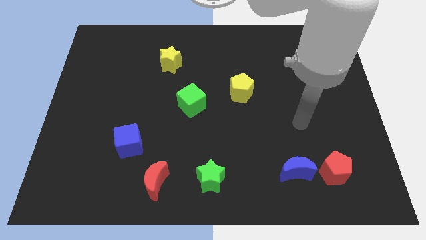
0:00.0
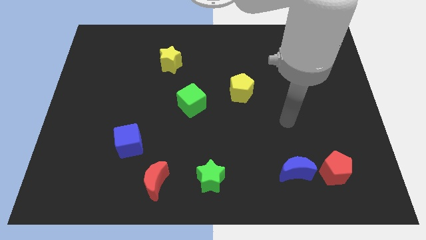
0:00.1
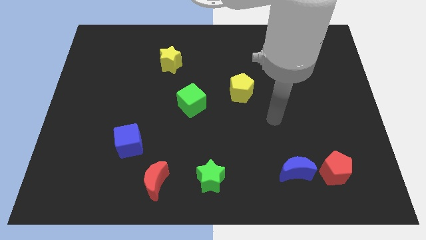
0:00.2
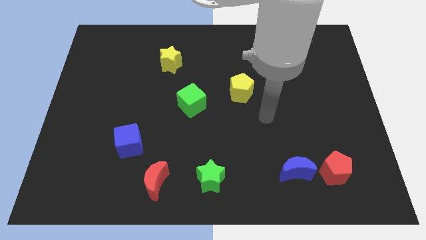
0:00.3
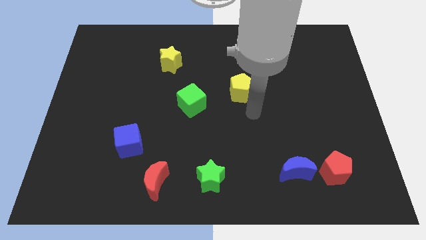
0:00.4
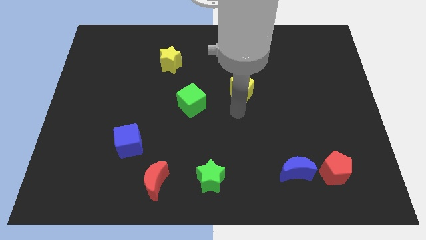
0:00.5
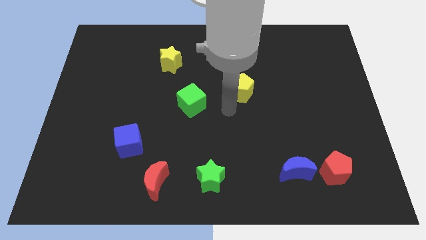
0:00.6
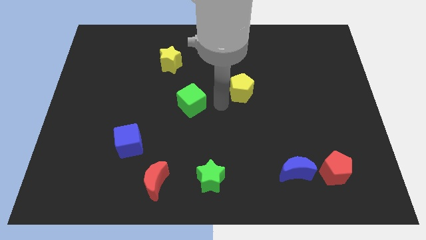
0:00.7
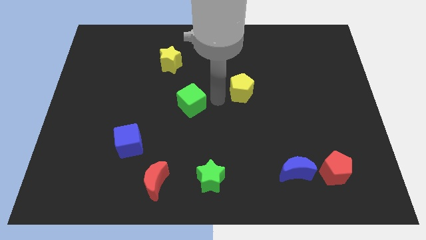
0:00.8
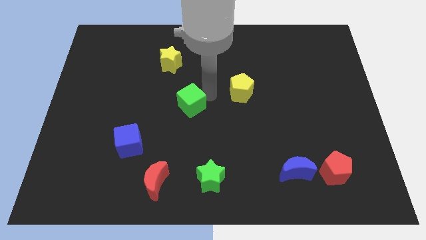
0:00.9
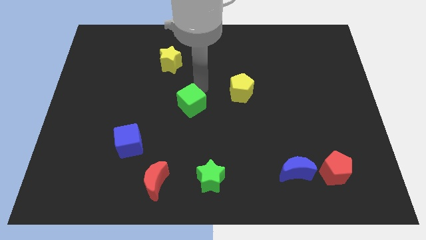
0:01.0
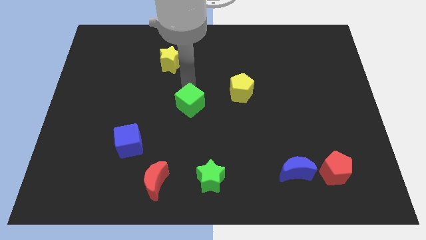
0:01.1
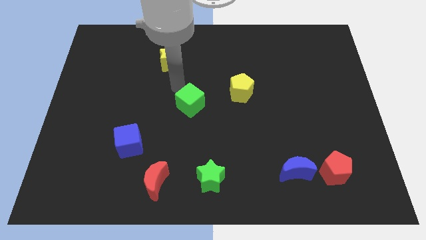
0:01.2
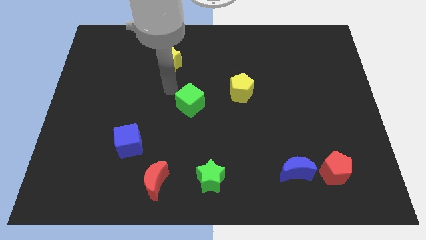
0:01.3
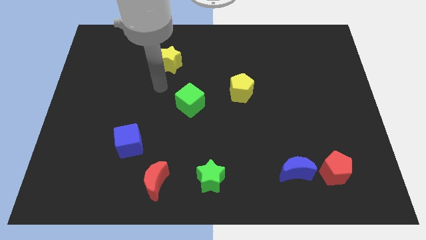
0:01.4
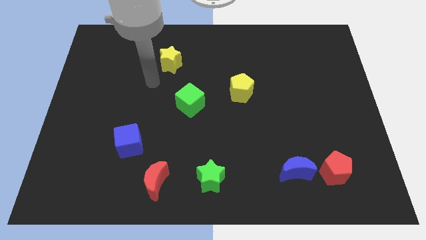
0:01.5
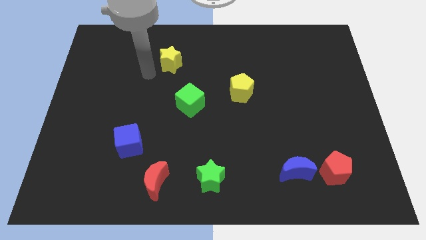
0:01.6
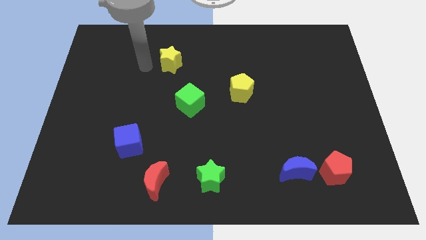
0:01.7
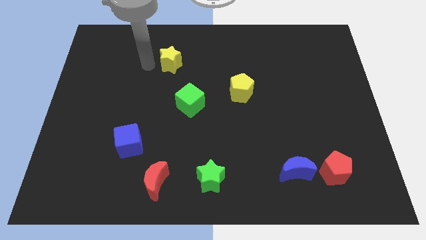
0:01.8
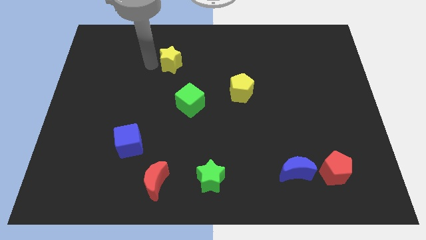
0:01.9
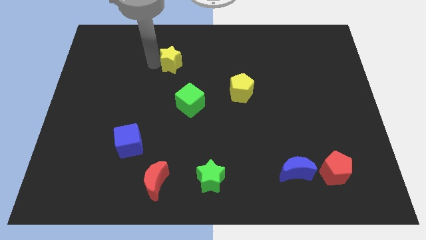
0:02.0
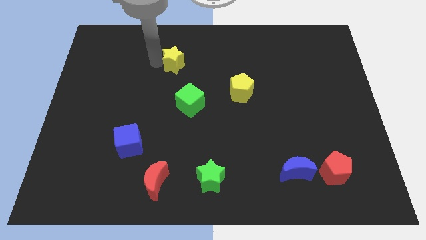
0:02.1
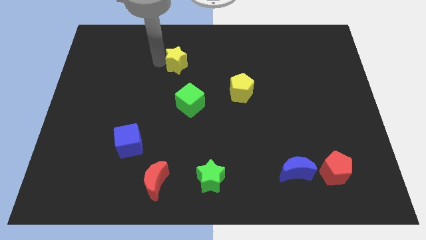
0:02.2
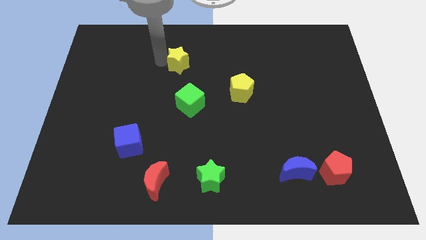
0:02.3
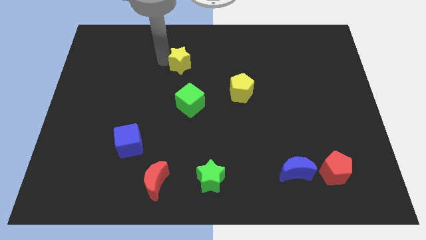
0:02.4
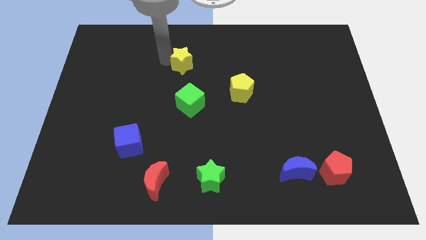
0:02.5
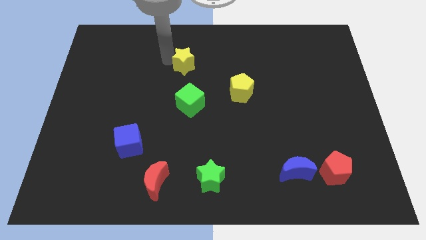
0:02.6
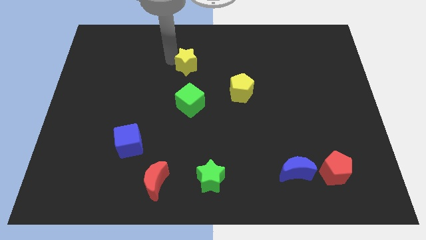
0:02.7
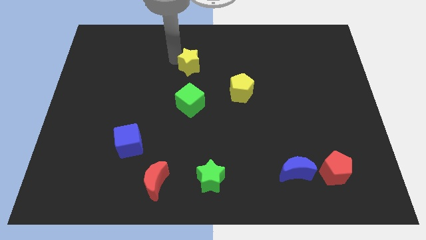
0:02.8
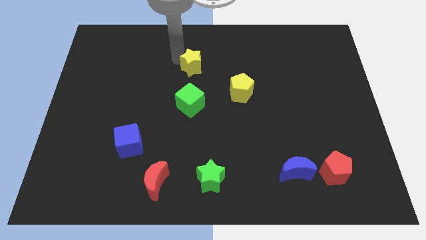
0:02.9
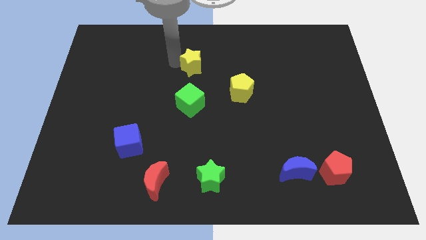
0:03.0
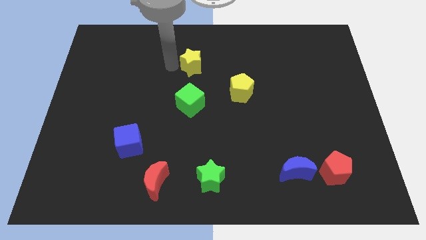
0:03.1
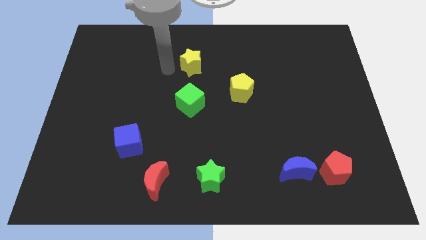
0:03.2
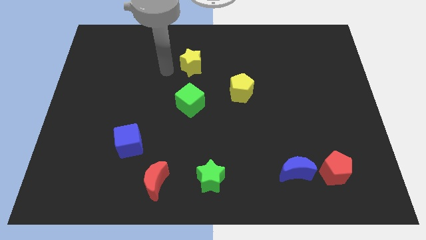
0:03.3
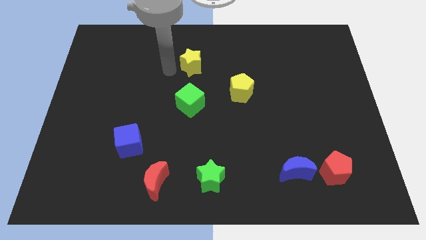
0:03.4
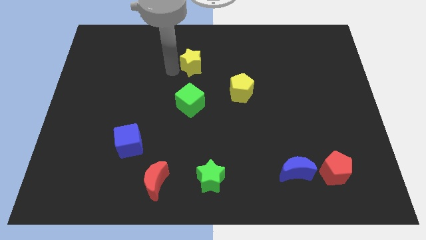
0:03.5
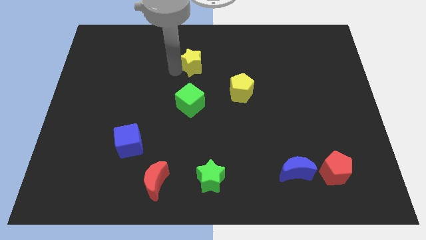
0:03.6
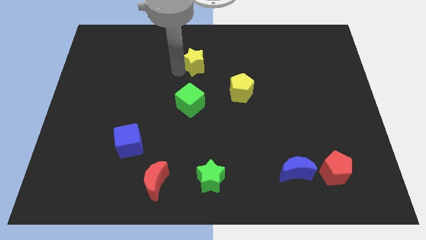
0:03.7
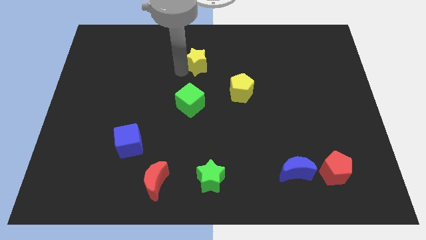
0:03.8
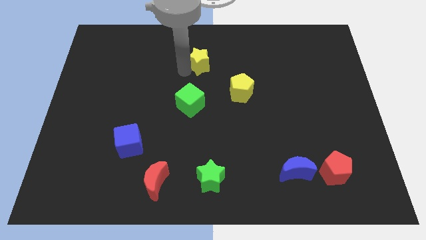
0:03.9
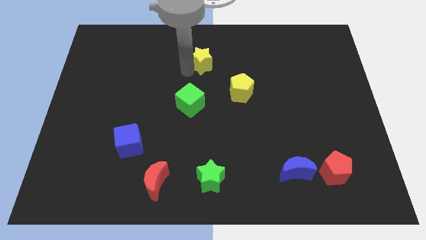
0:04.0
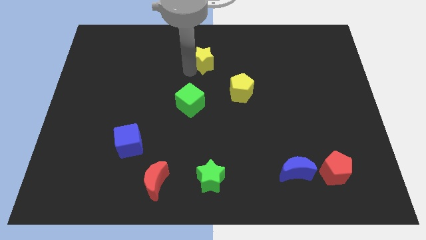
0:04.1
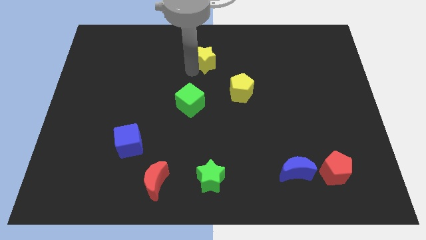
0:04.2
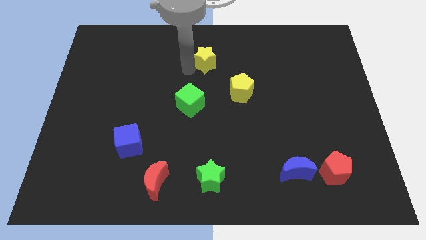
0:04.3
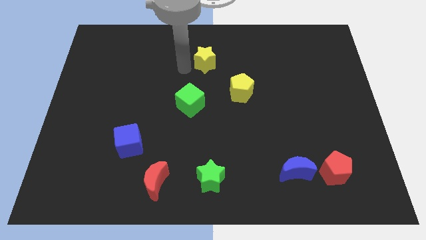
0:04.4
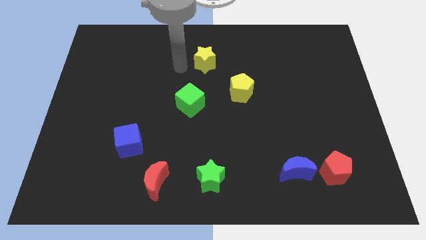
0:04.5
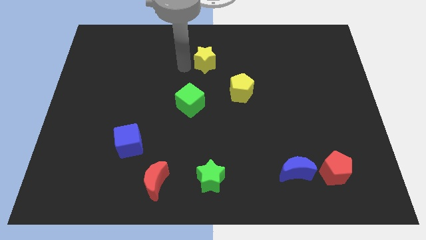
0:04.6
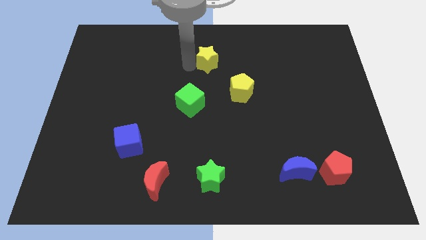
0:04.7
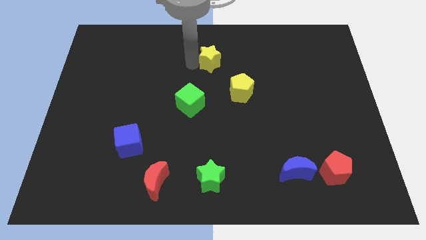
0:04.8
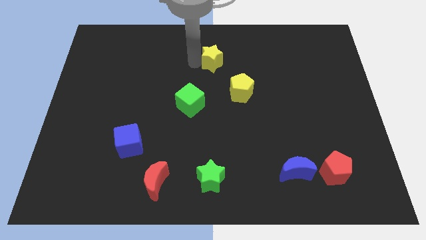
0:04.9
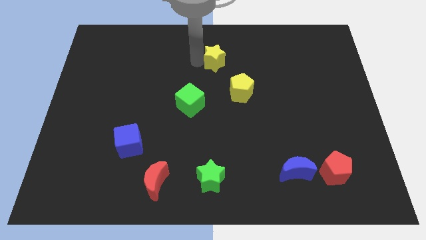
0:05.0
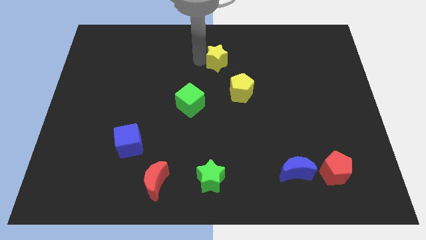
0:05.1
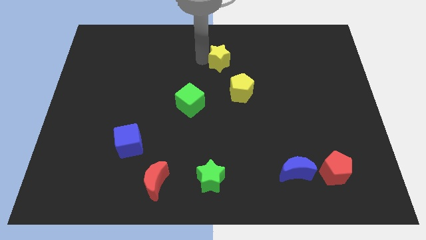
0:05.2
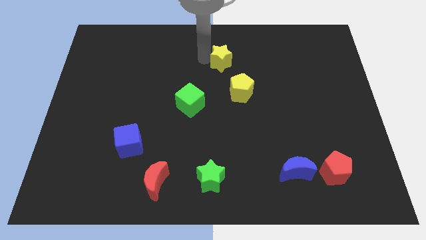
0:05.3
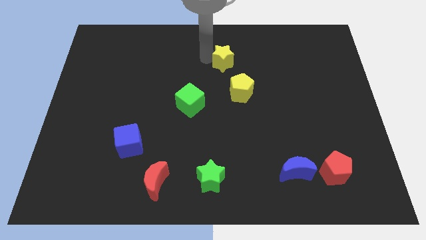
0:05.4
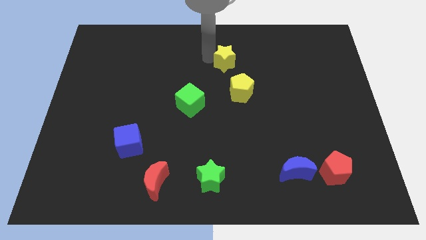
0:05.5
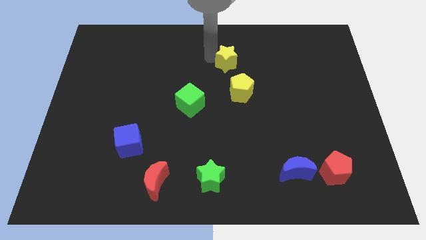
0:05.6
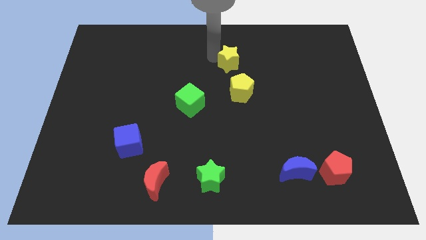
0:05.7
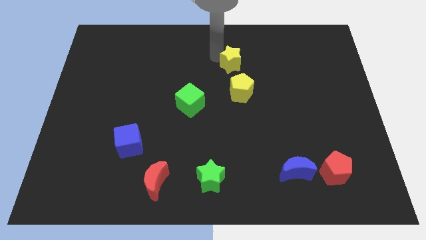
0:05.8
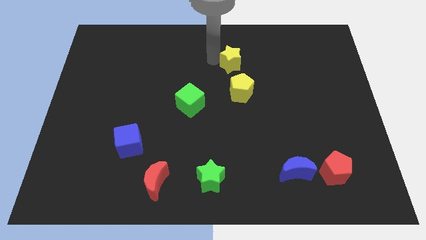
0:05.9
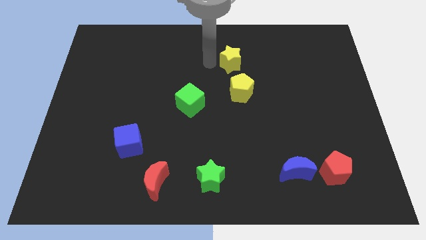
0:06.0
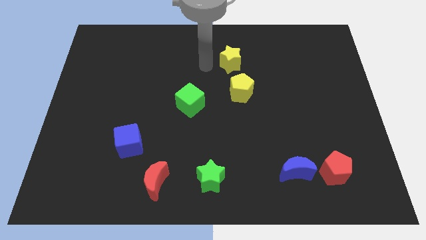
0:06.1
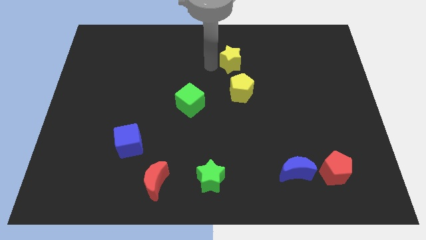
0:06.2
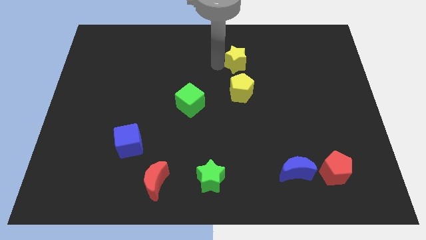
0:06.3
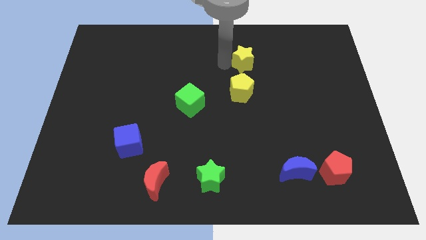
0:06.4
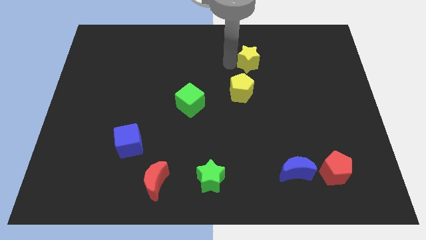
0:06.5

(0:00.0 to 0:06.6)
move the yellow star to the right

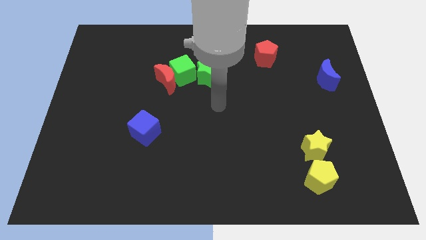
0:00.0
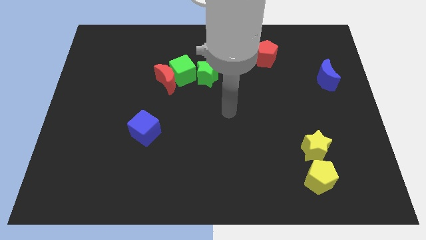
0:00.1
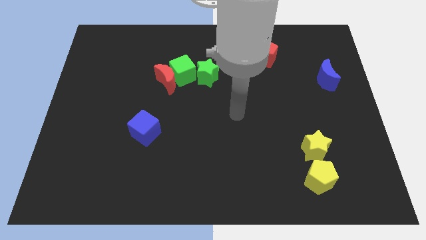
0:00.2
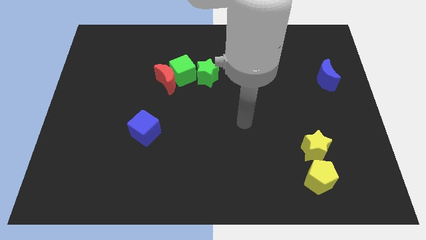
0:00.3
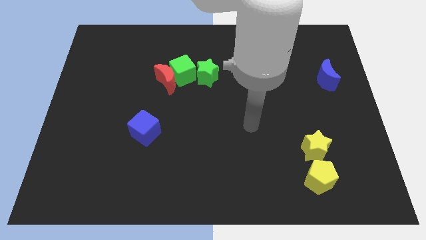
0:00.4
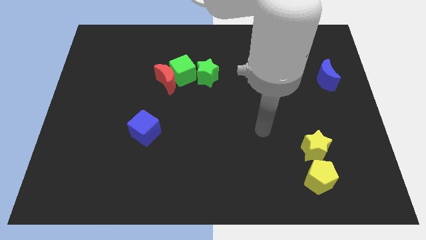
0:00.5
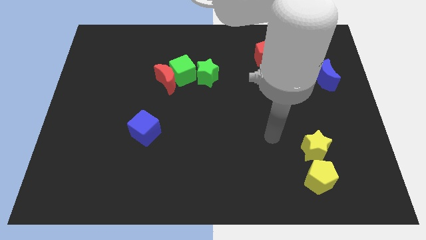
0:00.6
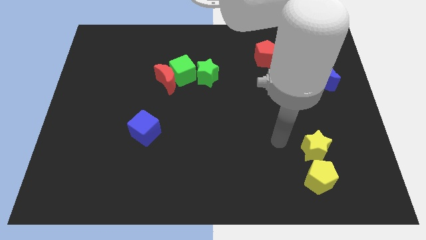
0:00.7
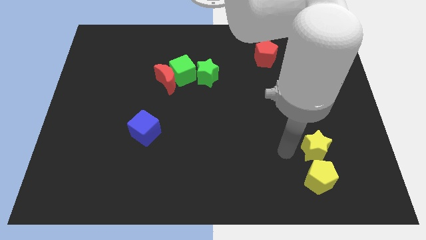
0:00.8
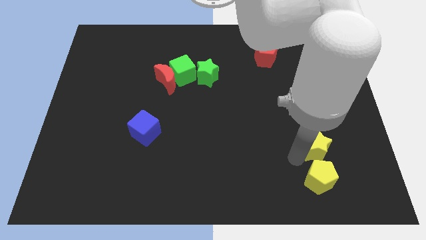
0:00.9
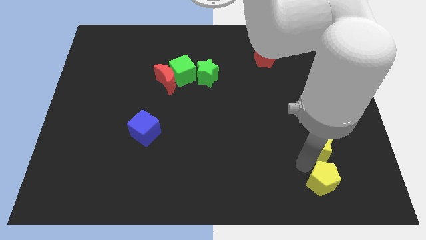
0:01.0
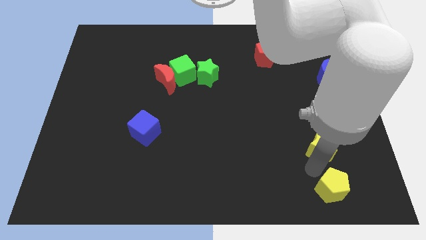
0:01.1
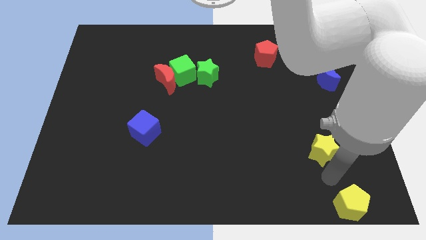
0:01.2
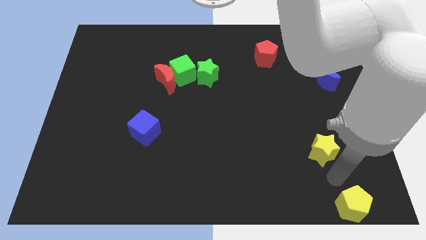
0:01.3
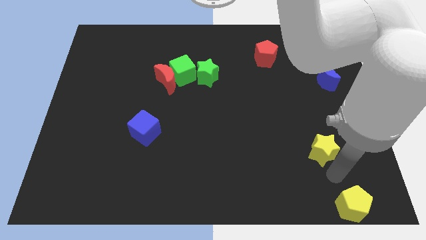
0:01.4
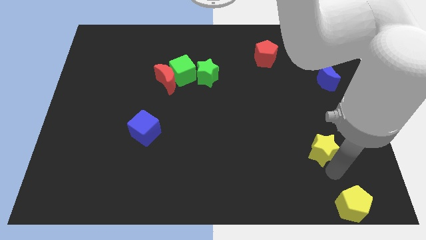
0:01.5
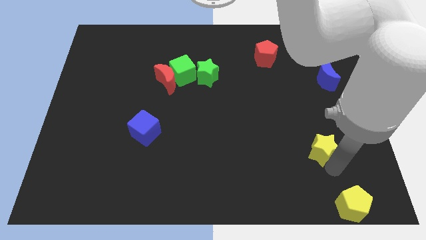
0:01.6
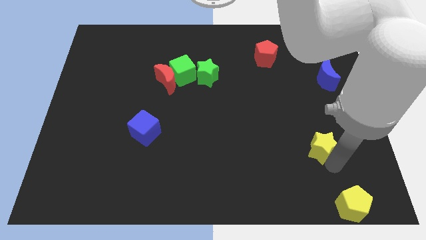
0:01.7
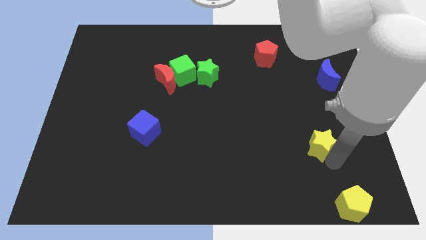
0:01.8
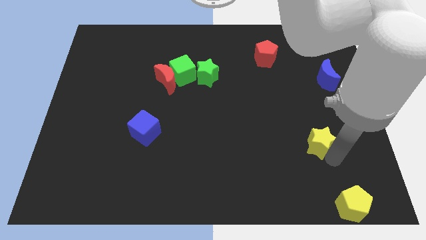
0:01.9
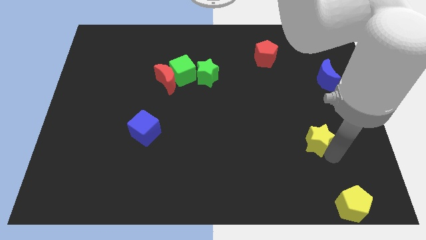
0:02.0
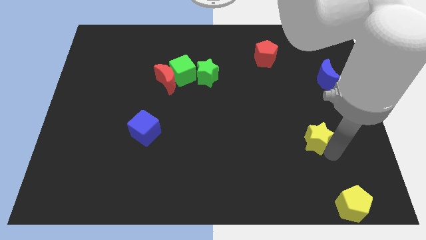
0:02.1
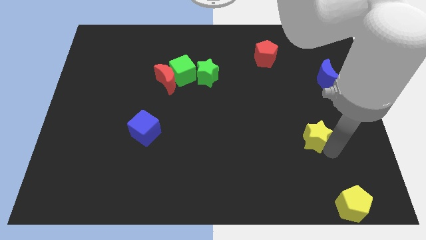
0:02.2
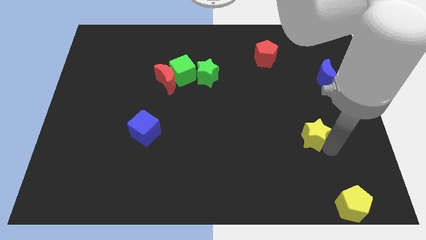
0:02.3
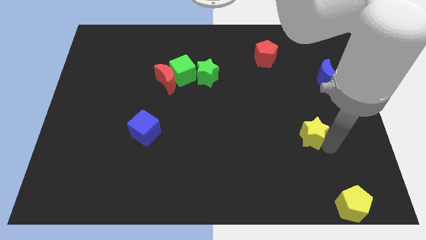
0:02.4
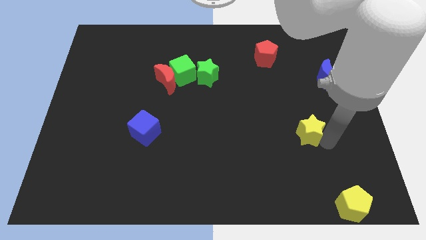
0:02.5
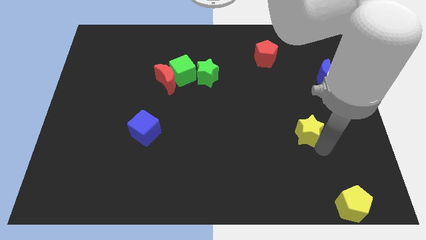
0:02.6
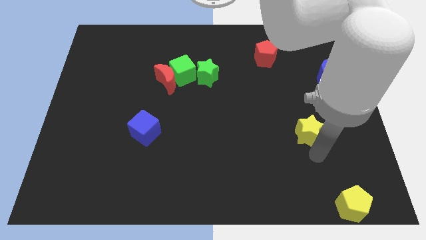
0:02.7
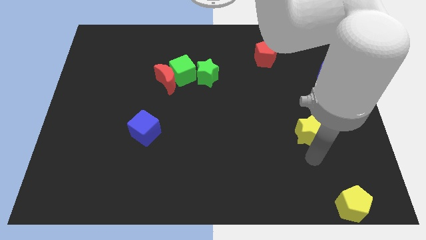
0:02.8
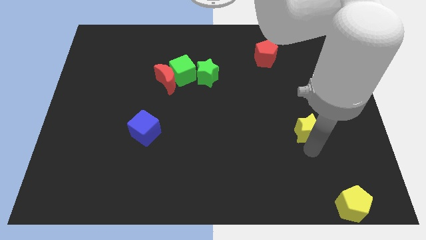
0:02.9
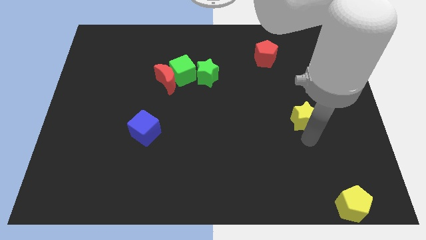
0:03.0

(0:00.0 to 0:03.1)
move the yellow star up a little bit
